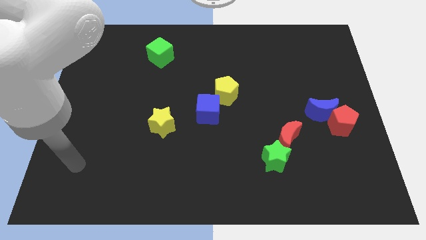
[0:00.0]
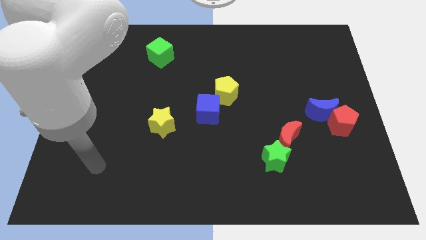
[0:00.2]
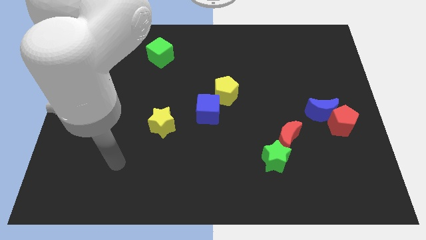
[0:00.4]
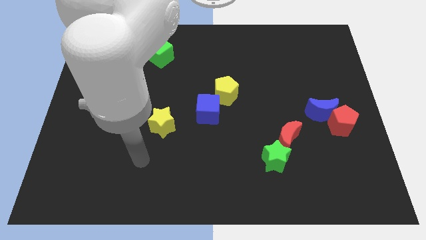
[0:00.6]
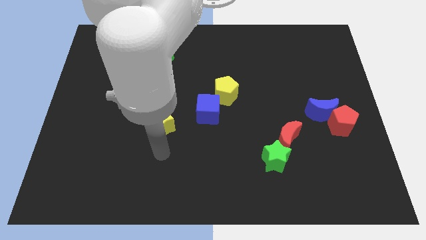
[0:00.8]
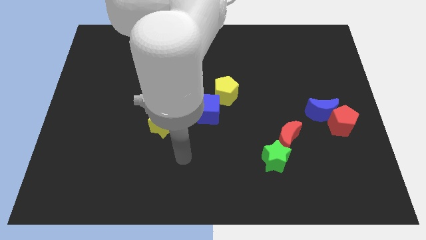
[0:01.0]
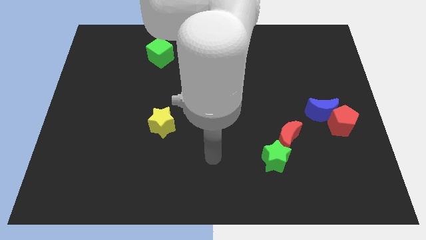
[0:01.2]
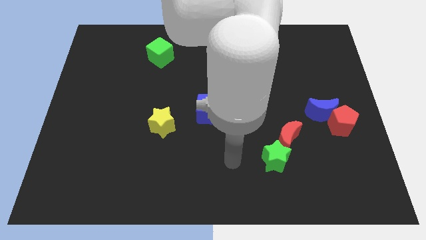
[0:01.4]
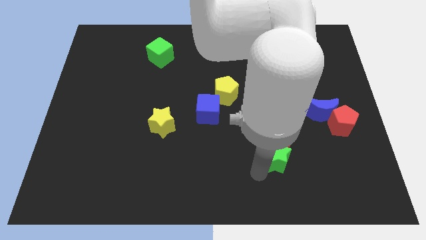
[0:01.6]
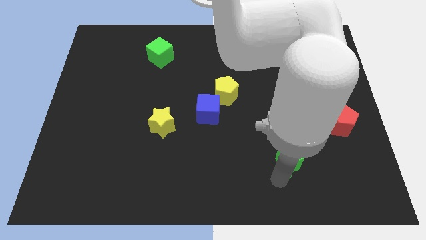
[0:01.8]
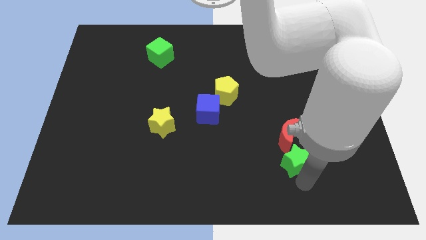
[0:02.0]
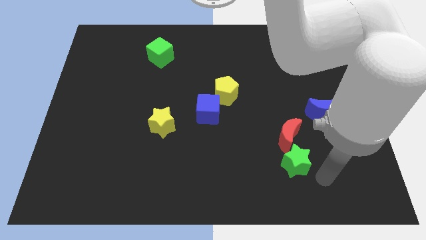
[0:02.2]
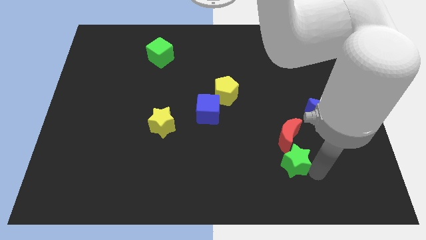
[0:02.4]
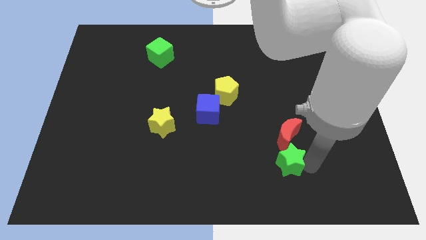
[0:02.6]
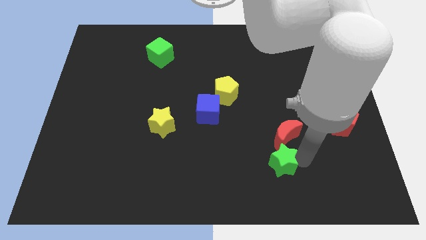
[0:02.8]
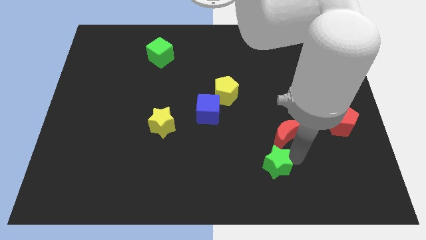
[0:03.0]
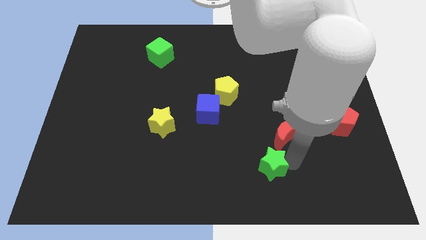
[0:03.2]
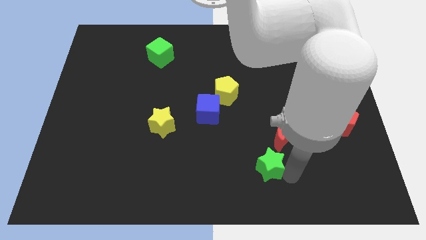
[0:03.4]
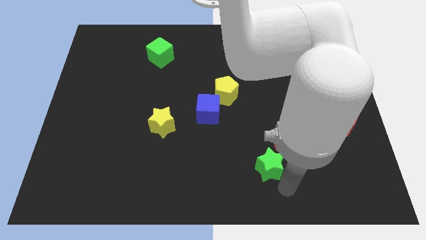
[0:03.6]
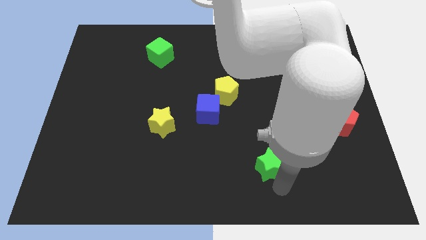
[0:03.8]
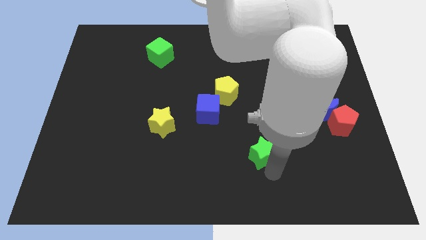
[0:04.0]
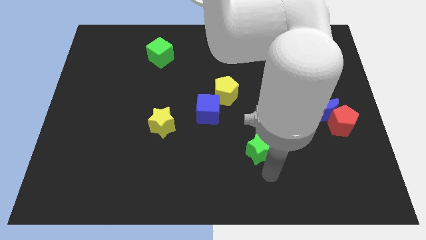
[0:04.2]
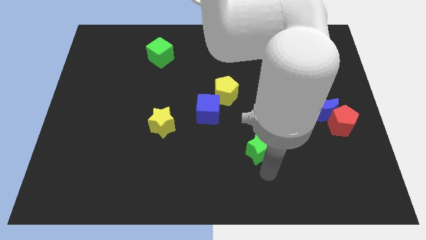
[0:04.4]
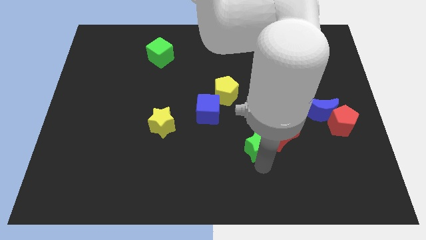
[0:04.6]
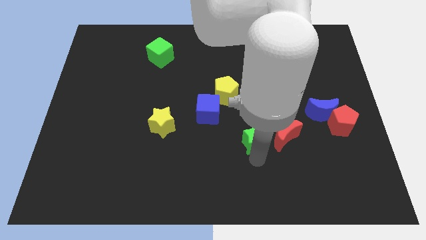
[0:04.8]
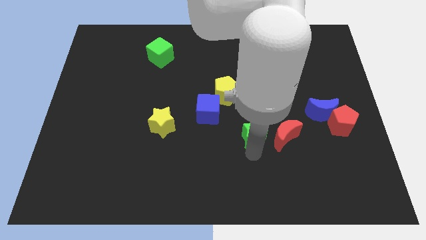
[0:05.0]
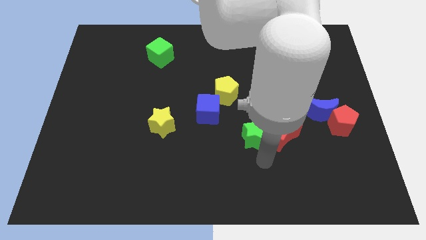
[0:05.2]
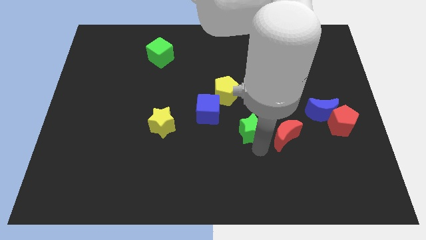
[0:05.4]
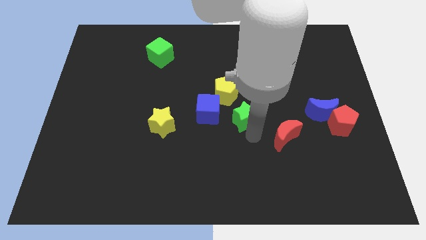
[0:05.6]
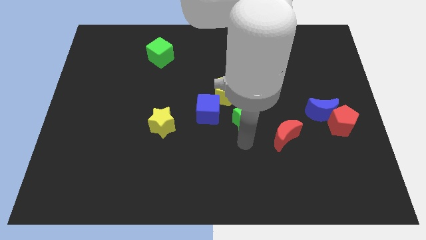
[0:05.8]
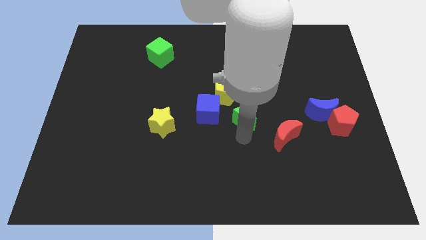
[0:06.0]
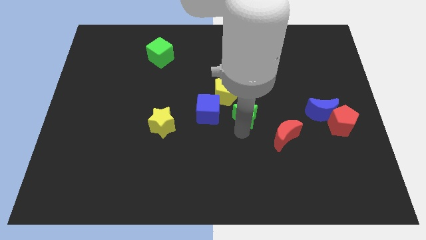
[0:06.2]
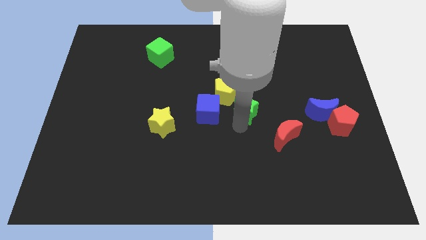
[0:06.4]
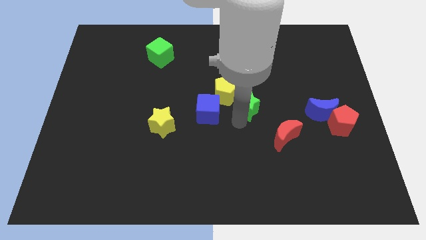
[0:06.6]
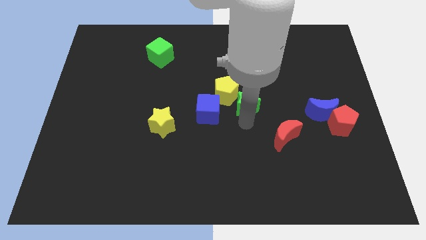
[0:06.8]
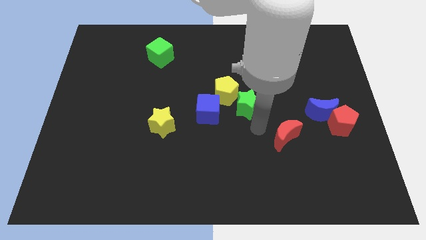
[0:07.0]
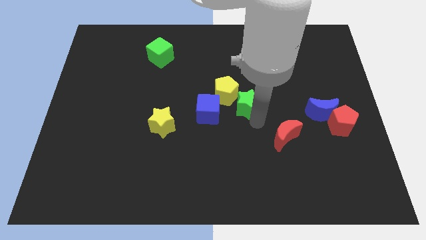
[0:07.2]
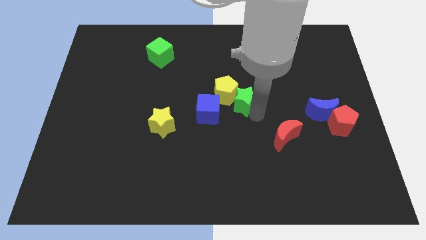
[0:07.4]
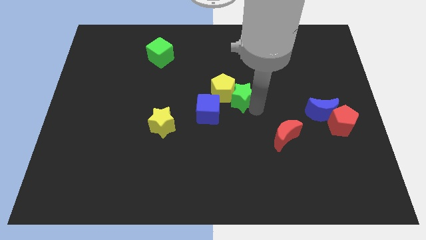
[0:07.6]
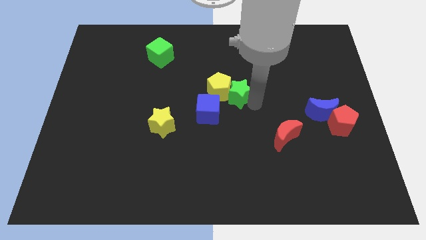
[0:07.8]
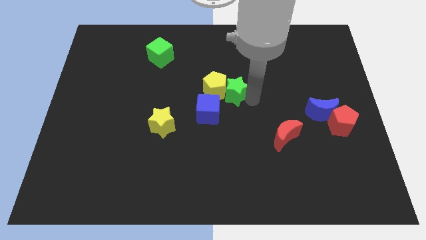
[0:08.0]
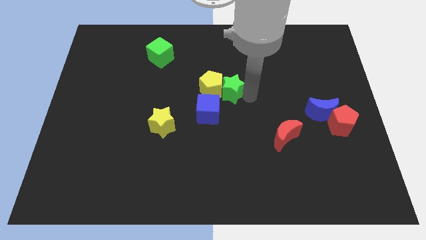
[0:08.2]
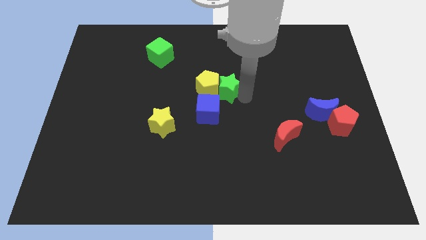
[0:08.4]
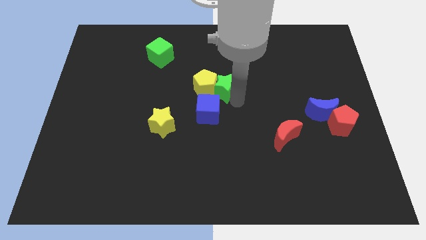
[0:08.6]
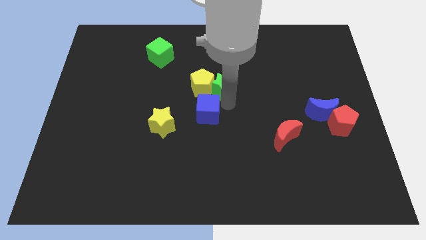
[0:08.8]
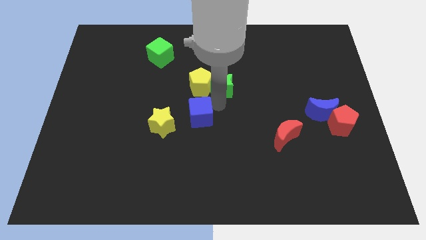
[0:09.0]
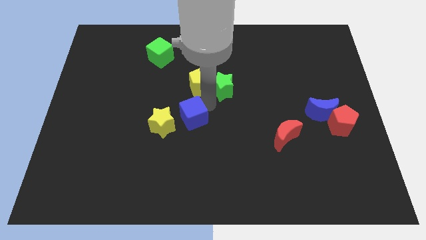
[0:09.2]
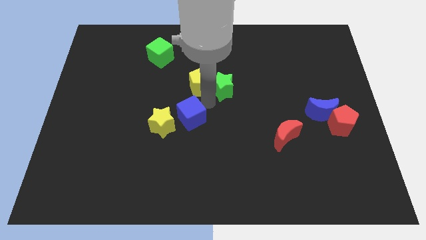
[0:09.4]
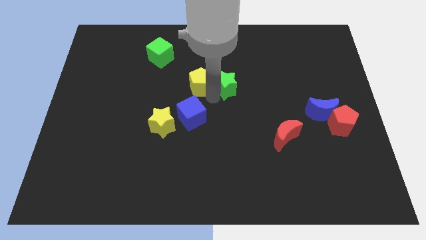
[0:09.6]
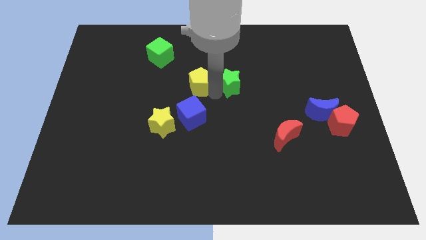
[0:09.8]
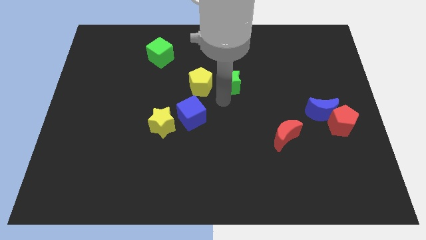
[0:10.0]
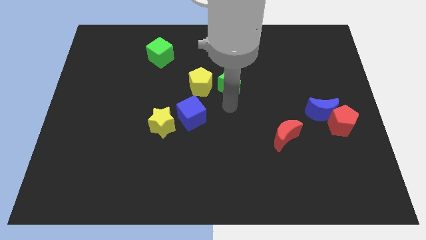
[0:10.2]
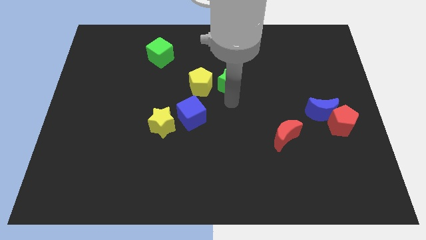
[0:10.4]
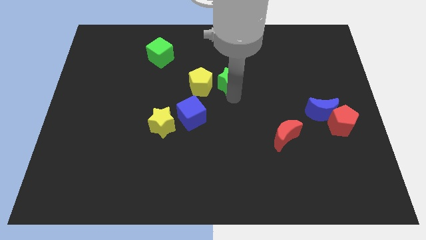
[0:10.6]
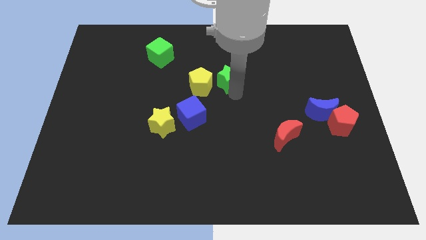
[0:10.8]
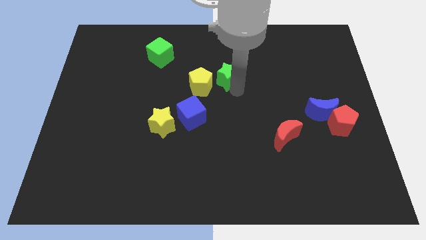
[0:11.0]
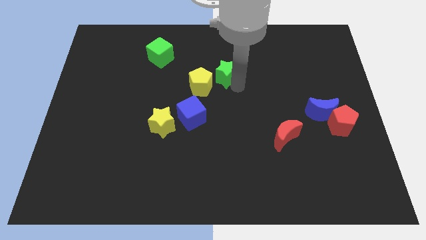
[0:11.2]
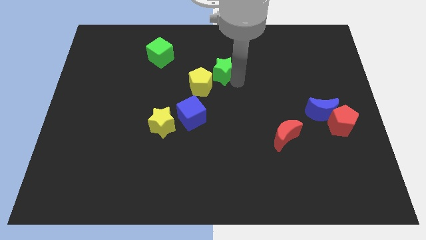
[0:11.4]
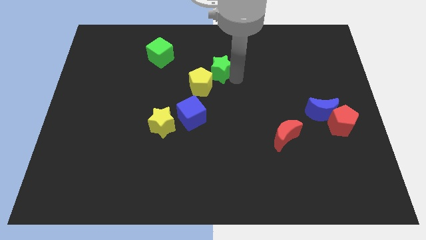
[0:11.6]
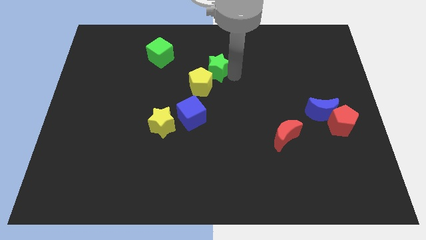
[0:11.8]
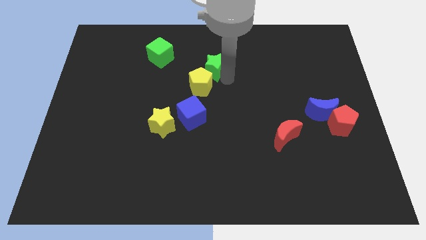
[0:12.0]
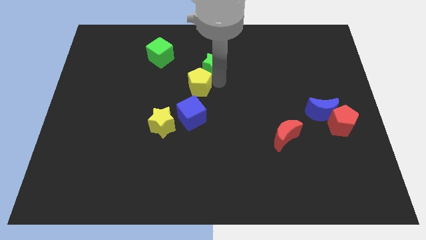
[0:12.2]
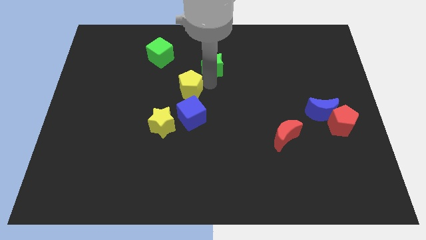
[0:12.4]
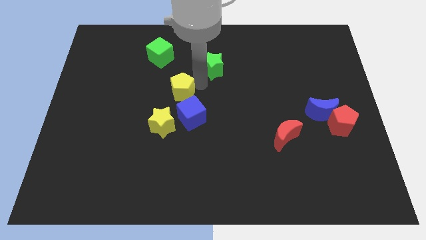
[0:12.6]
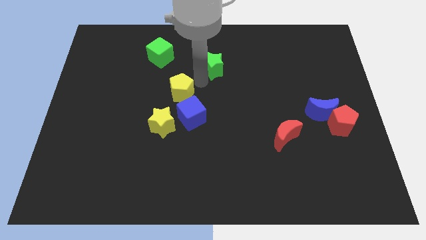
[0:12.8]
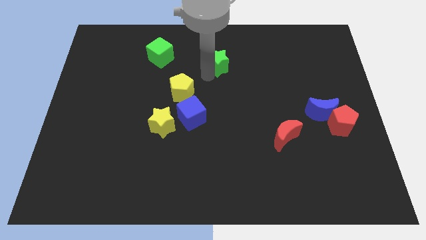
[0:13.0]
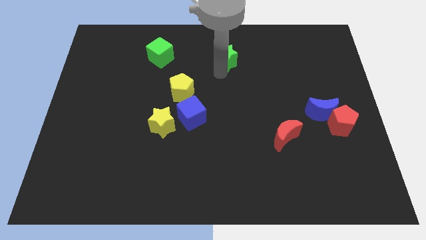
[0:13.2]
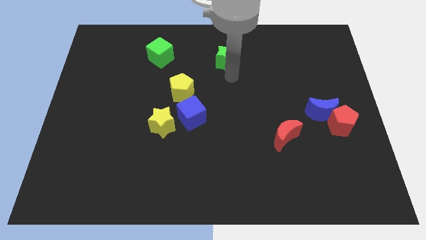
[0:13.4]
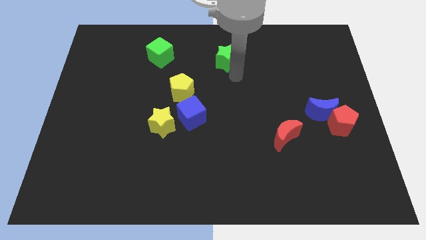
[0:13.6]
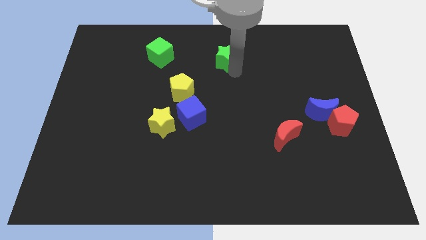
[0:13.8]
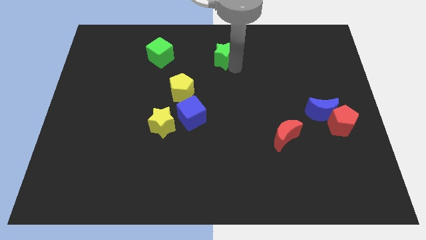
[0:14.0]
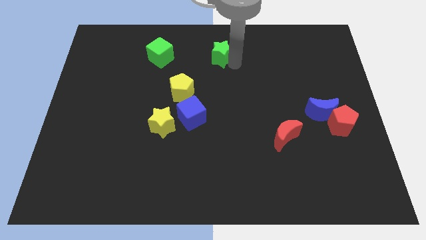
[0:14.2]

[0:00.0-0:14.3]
put the green star to the top side
